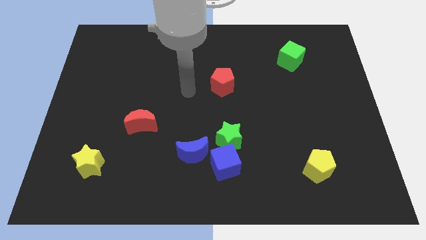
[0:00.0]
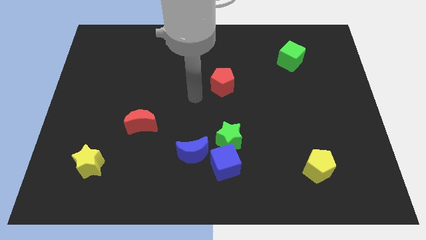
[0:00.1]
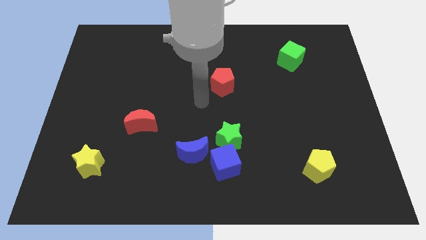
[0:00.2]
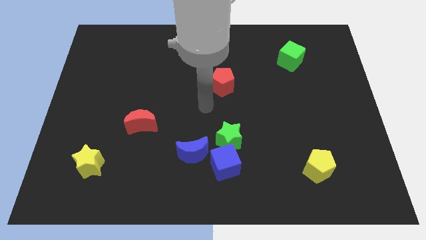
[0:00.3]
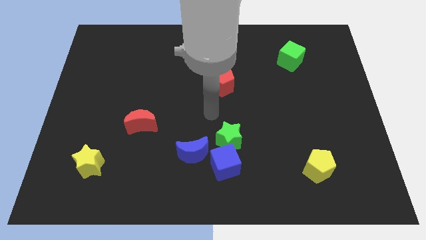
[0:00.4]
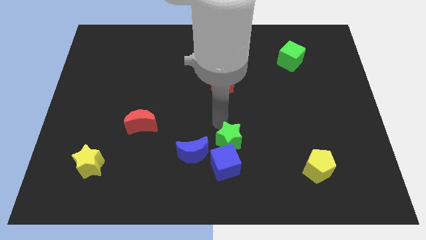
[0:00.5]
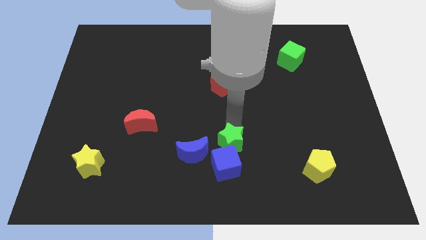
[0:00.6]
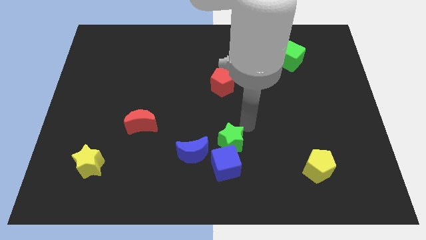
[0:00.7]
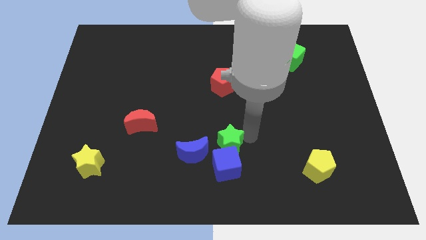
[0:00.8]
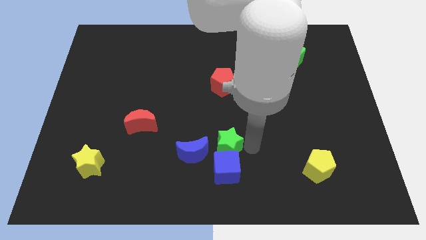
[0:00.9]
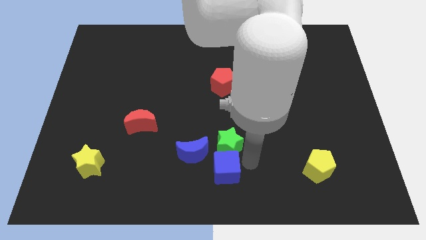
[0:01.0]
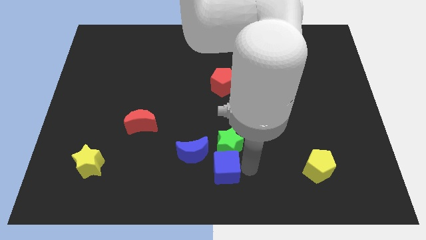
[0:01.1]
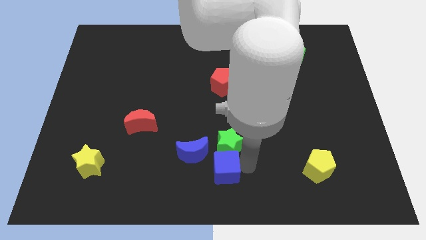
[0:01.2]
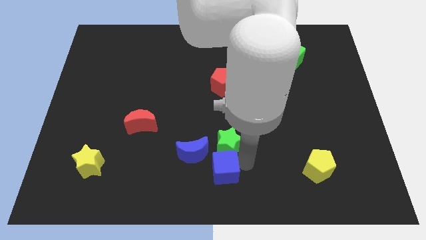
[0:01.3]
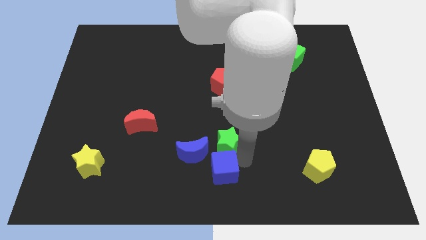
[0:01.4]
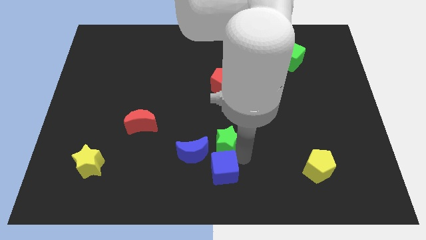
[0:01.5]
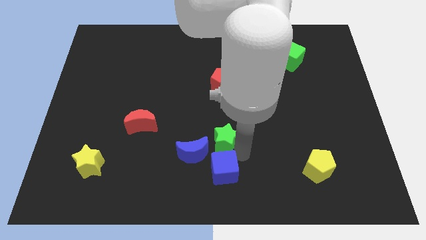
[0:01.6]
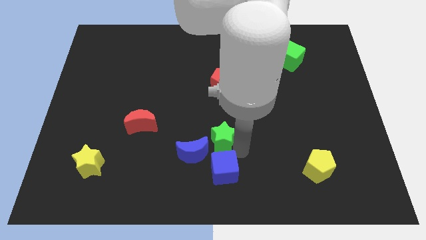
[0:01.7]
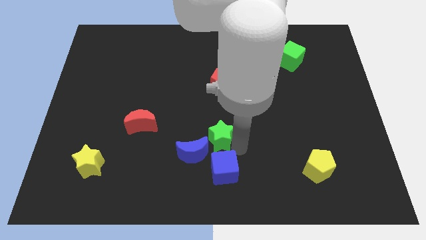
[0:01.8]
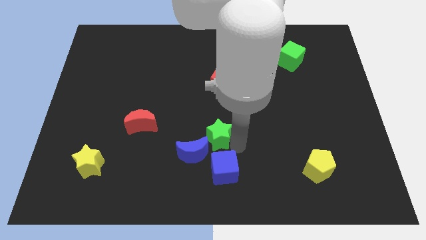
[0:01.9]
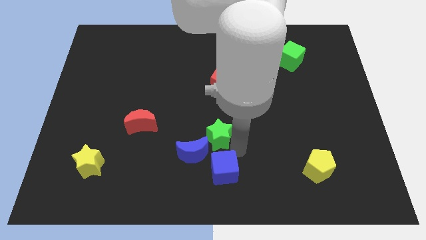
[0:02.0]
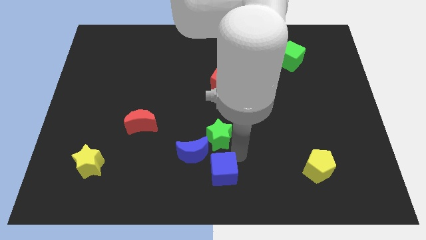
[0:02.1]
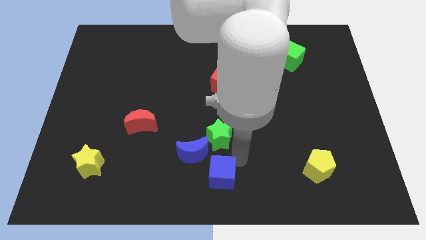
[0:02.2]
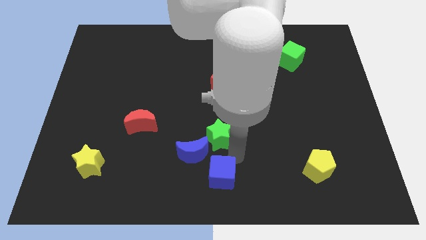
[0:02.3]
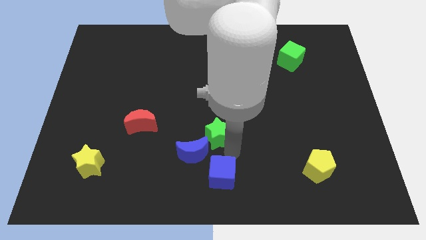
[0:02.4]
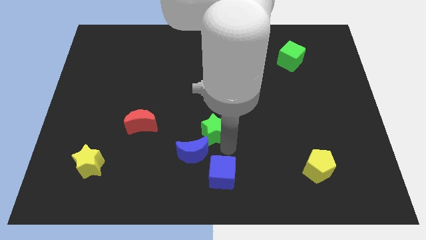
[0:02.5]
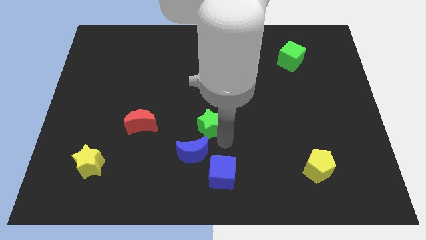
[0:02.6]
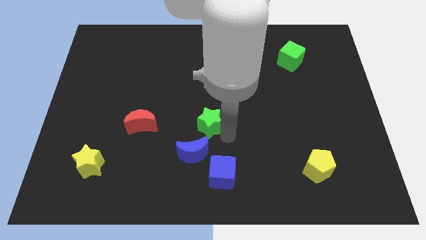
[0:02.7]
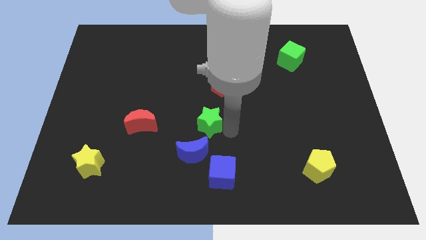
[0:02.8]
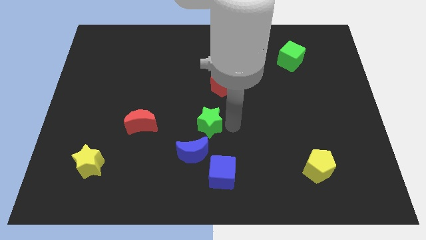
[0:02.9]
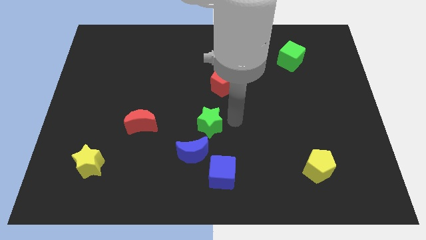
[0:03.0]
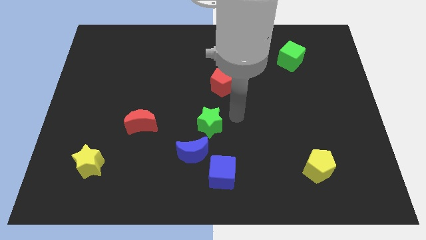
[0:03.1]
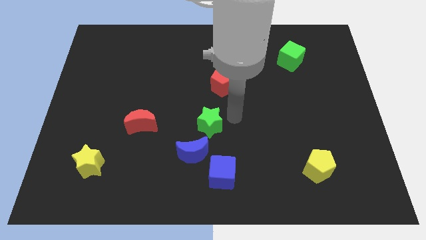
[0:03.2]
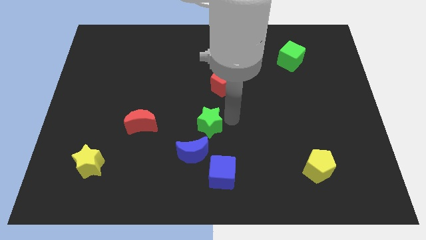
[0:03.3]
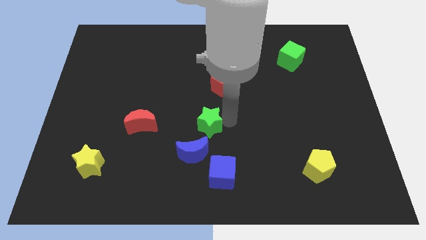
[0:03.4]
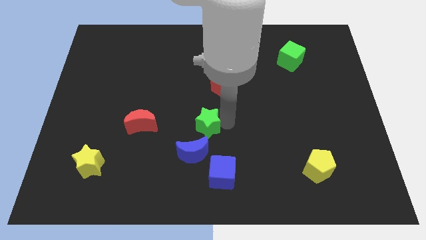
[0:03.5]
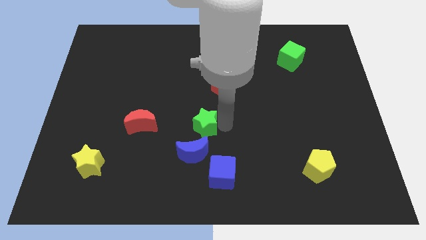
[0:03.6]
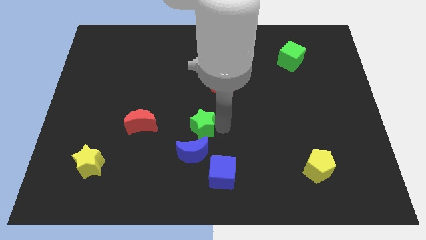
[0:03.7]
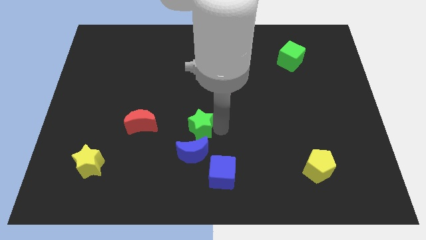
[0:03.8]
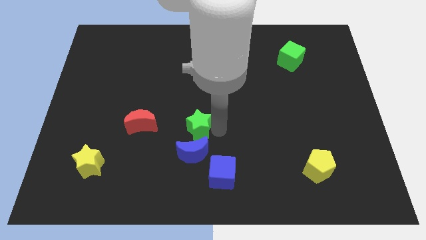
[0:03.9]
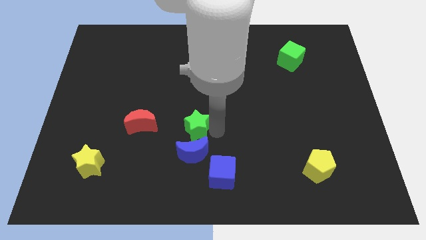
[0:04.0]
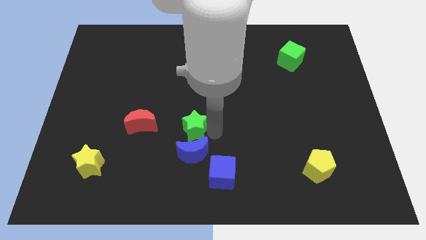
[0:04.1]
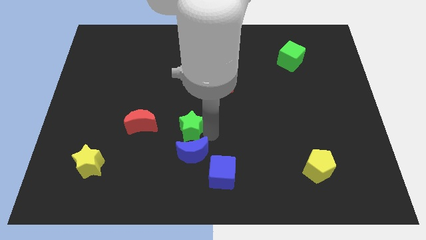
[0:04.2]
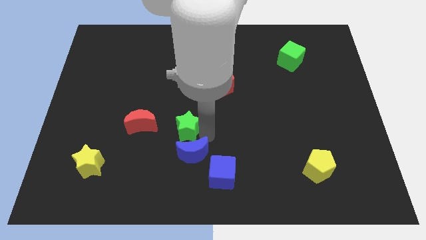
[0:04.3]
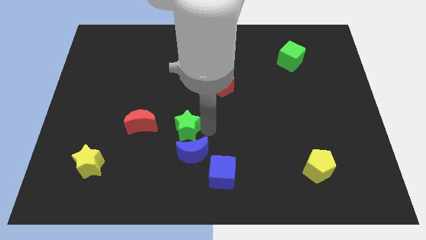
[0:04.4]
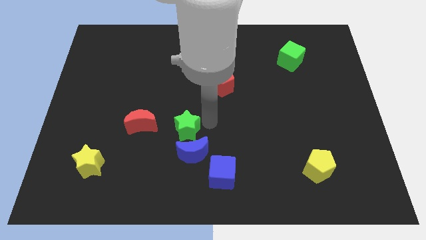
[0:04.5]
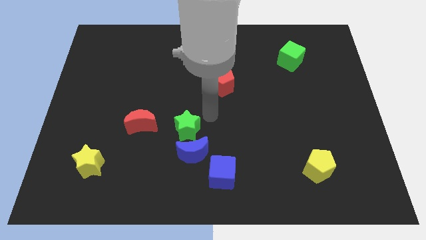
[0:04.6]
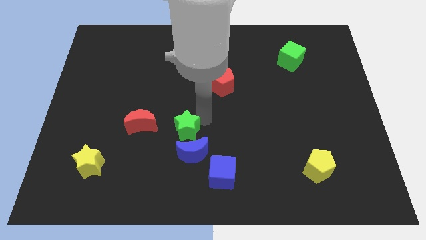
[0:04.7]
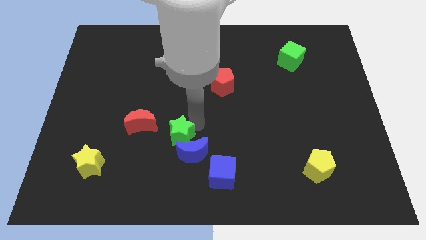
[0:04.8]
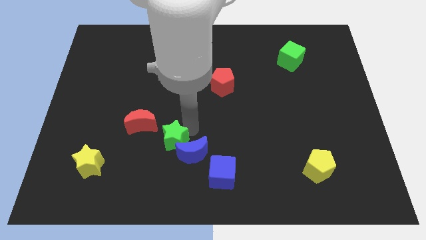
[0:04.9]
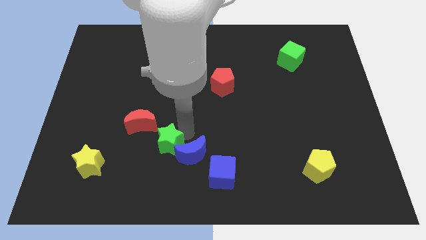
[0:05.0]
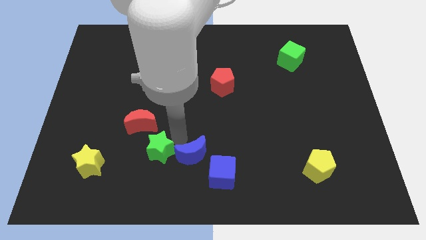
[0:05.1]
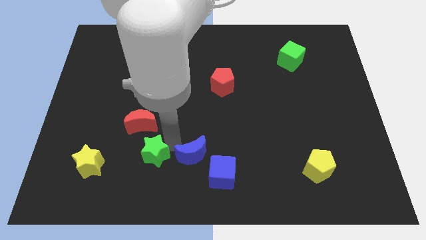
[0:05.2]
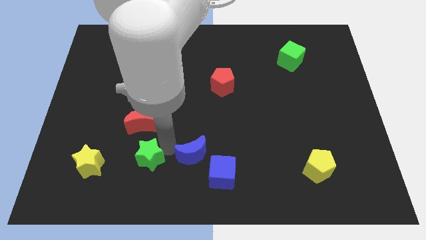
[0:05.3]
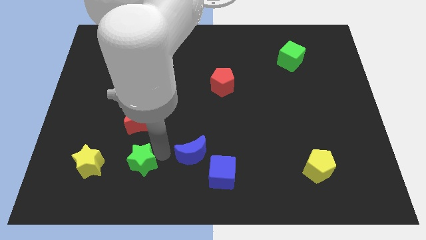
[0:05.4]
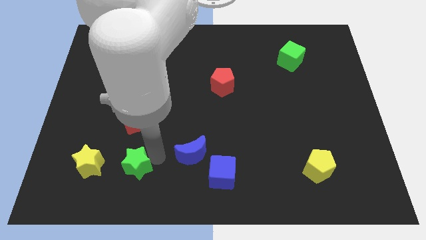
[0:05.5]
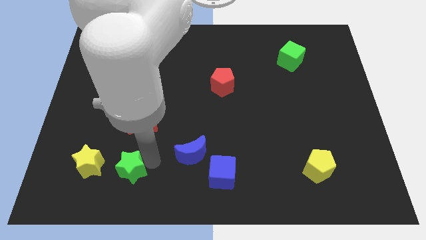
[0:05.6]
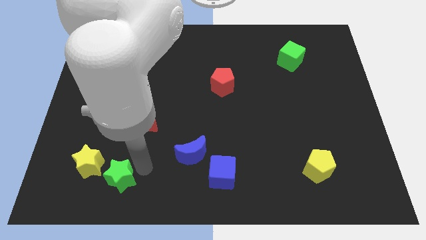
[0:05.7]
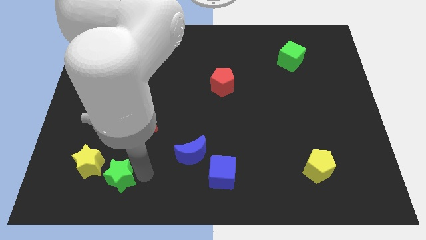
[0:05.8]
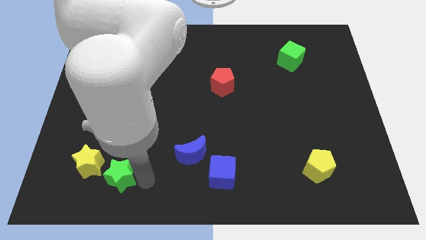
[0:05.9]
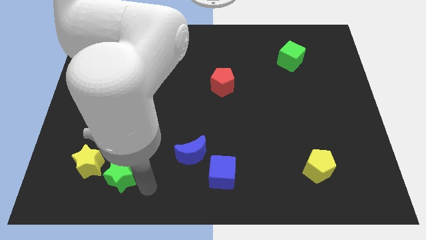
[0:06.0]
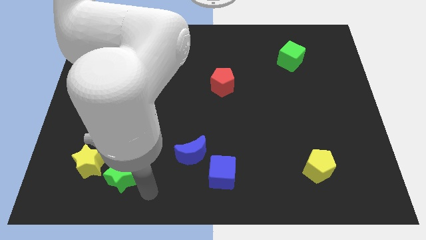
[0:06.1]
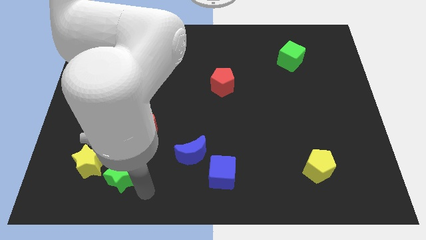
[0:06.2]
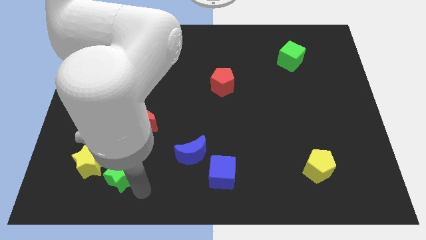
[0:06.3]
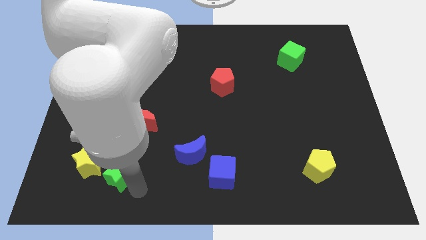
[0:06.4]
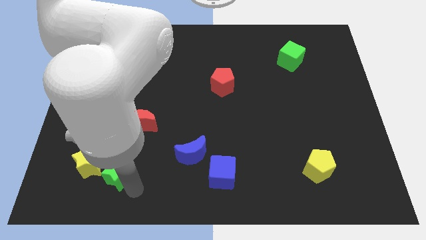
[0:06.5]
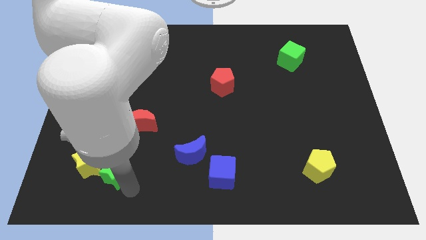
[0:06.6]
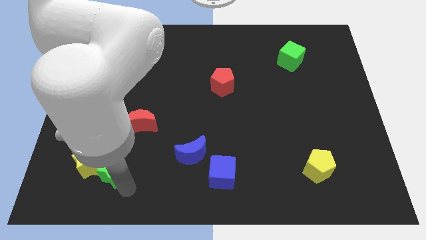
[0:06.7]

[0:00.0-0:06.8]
move the green star next to the yellow star
